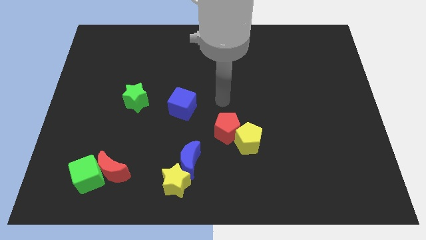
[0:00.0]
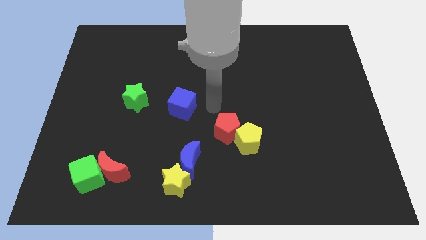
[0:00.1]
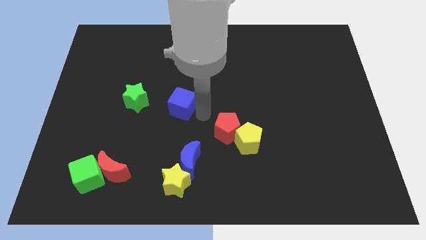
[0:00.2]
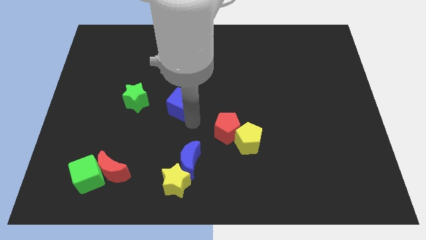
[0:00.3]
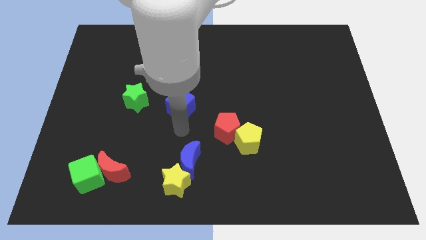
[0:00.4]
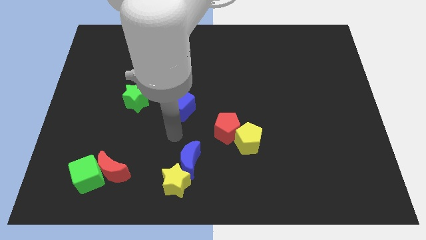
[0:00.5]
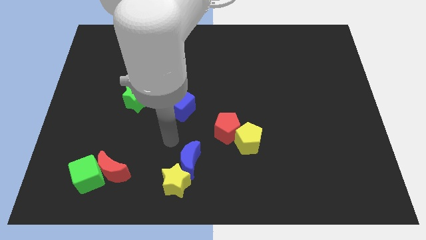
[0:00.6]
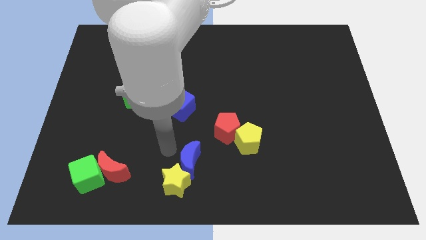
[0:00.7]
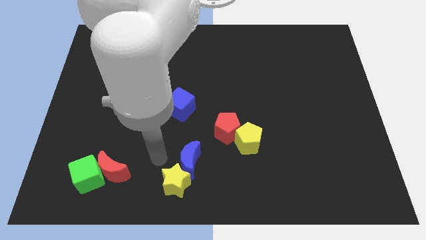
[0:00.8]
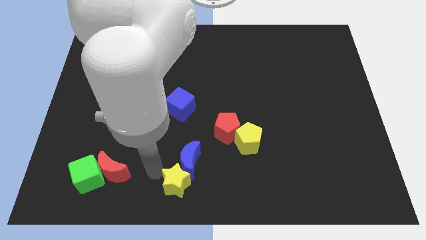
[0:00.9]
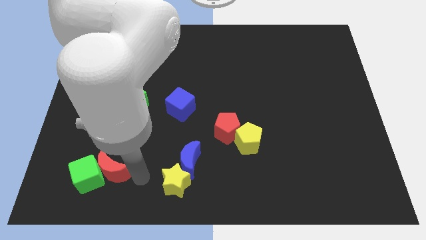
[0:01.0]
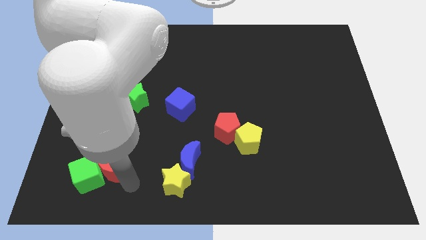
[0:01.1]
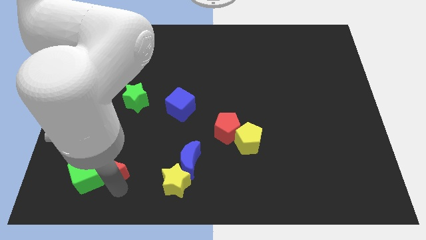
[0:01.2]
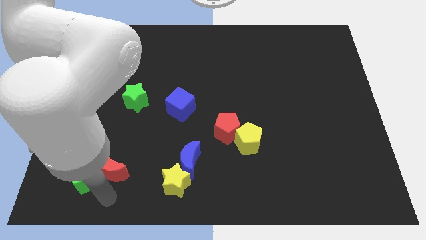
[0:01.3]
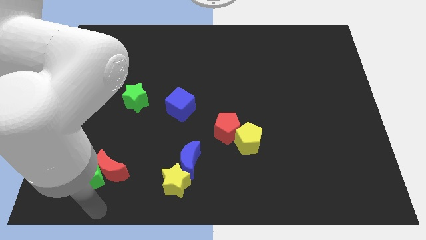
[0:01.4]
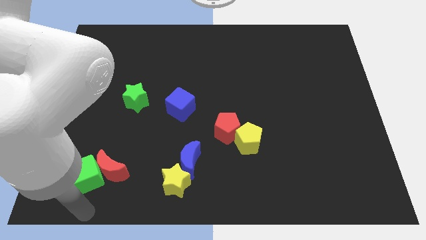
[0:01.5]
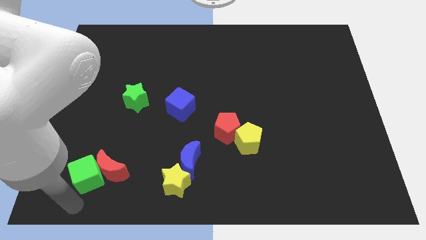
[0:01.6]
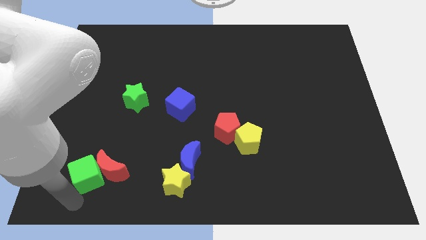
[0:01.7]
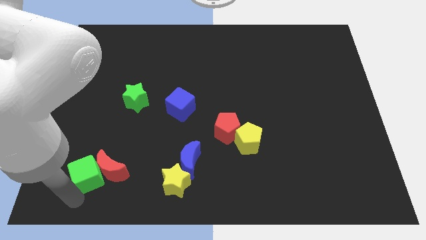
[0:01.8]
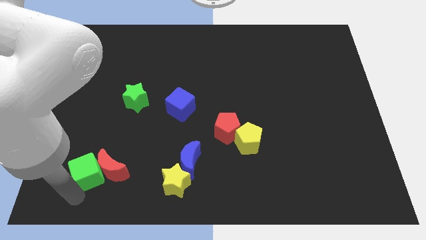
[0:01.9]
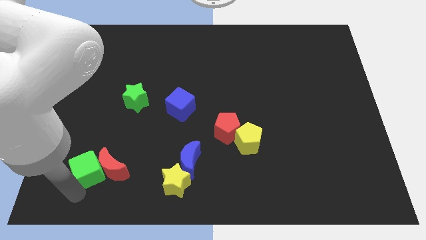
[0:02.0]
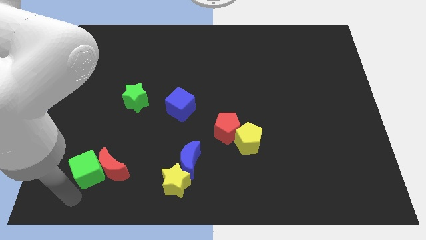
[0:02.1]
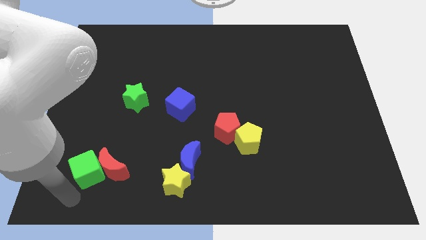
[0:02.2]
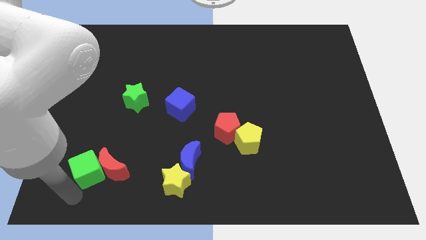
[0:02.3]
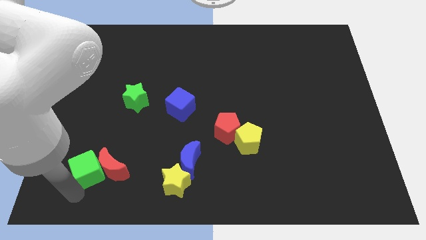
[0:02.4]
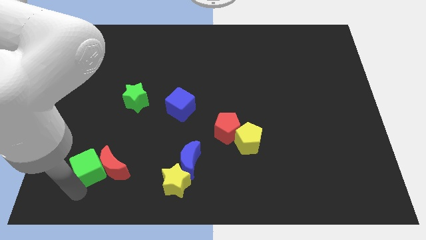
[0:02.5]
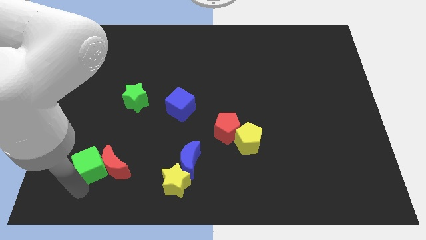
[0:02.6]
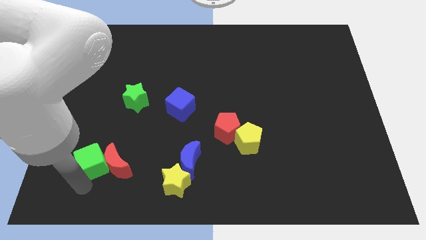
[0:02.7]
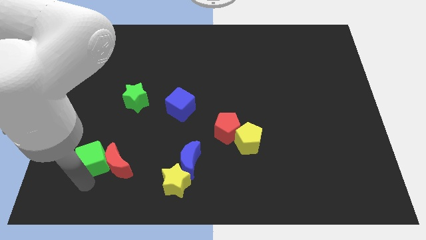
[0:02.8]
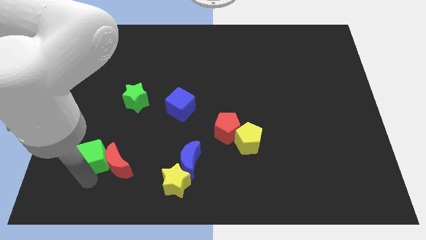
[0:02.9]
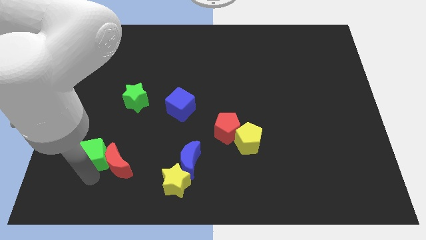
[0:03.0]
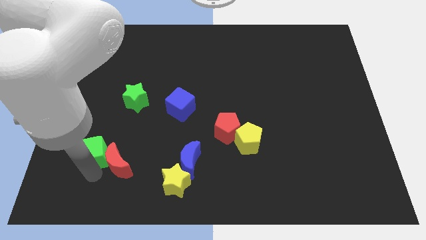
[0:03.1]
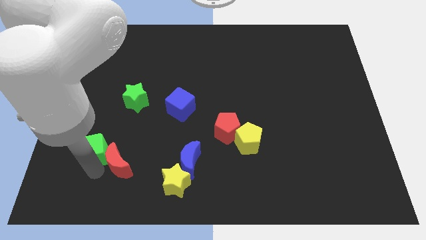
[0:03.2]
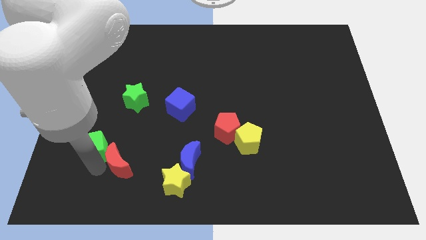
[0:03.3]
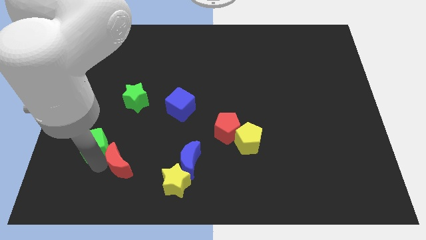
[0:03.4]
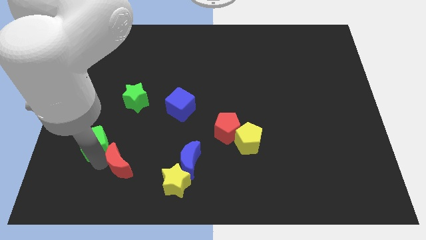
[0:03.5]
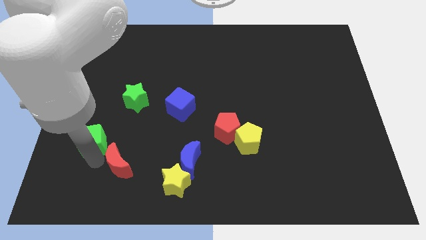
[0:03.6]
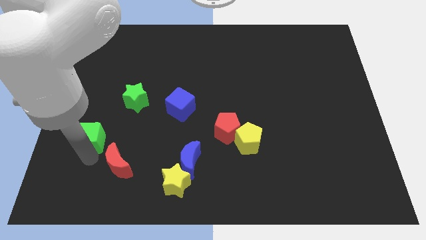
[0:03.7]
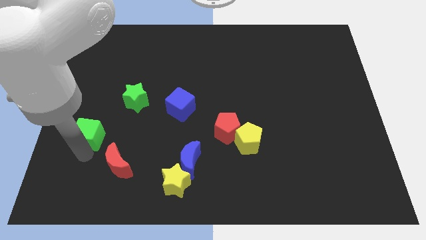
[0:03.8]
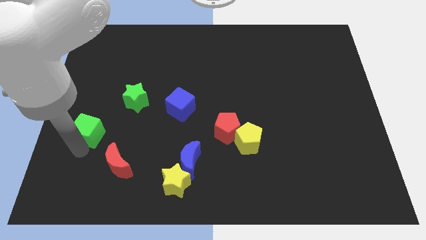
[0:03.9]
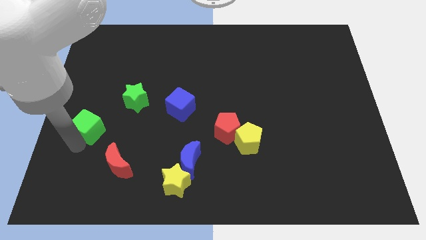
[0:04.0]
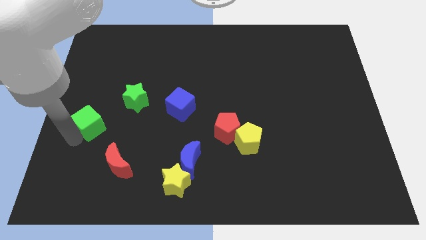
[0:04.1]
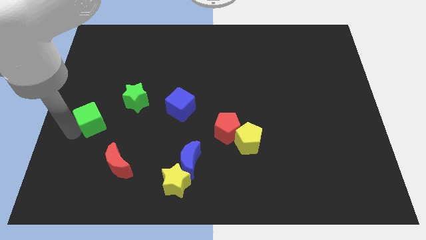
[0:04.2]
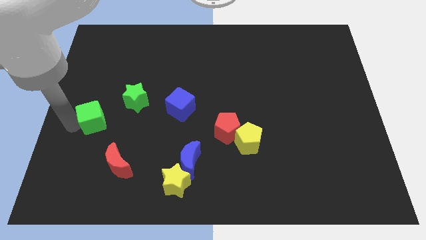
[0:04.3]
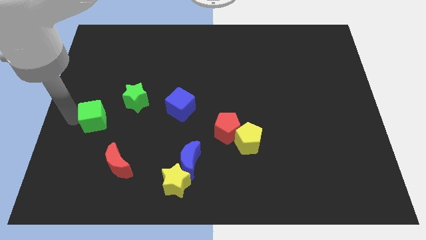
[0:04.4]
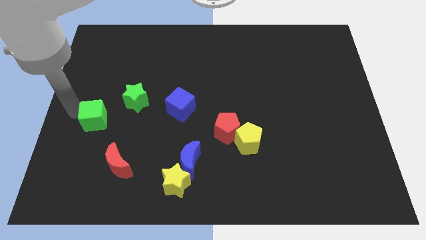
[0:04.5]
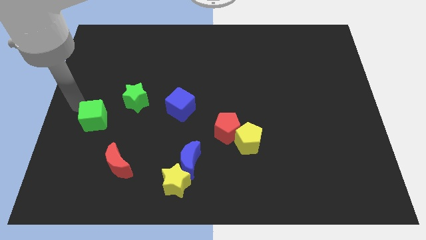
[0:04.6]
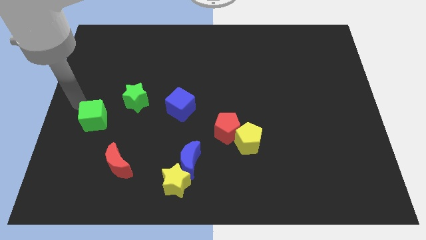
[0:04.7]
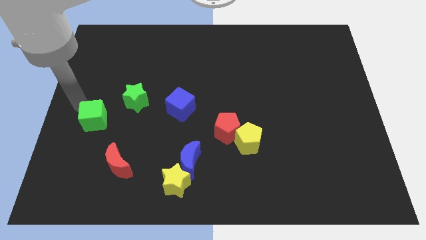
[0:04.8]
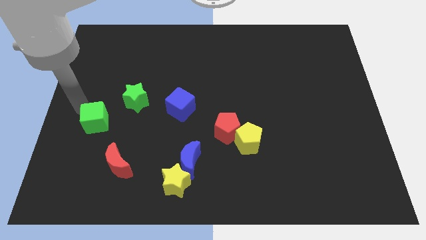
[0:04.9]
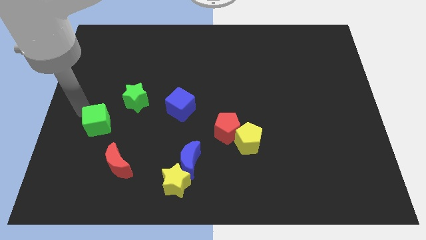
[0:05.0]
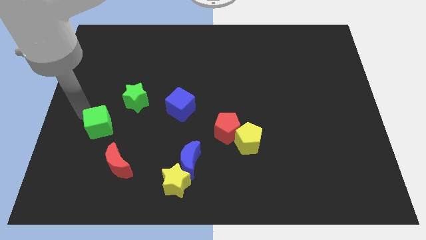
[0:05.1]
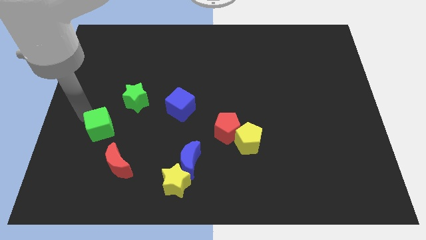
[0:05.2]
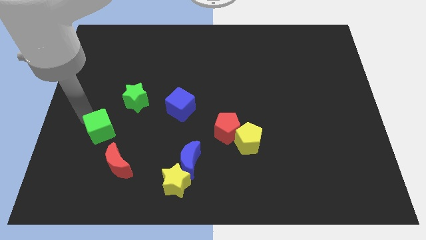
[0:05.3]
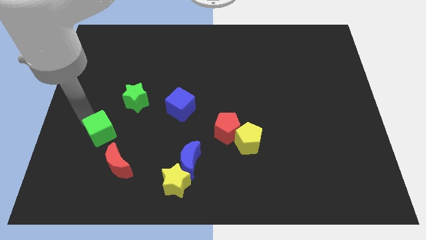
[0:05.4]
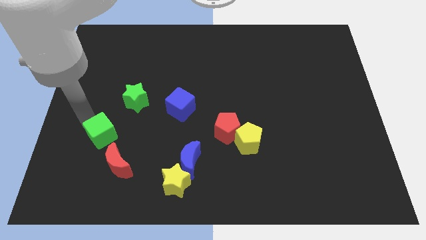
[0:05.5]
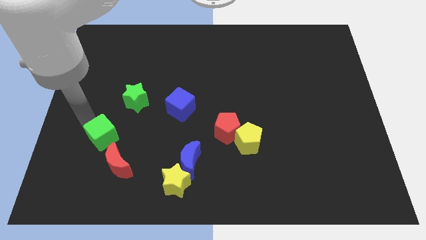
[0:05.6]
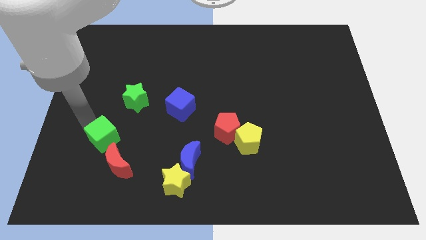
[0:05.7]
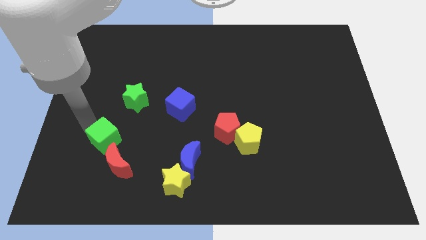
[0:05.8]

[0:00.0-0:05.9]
push the green cube a little diagonally upwards and right

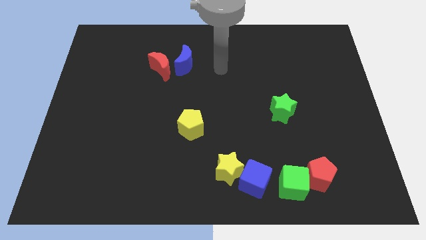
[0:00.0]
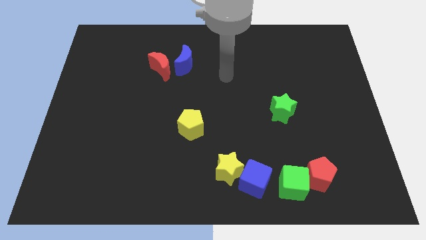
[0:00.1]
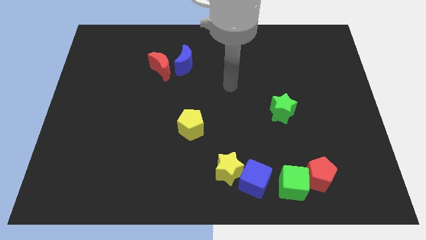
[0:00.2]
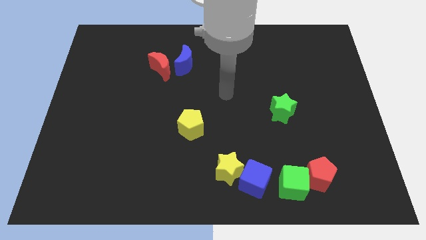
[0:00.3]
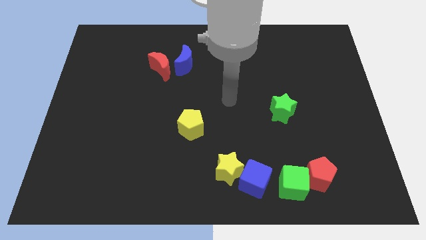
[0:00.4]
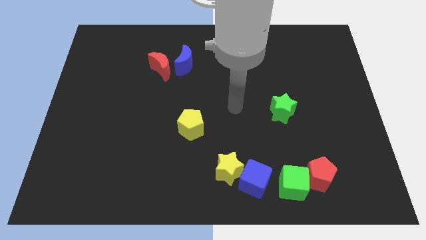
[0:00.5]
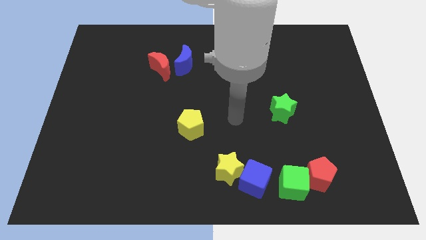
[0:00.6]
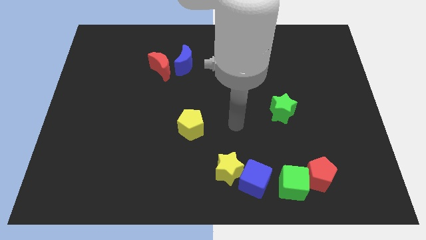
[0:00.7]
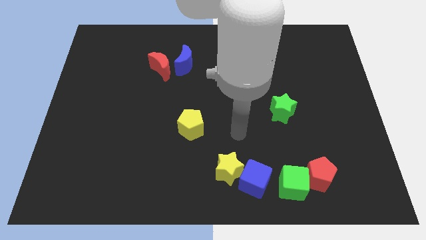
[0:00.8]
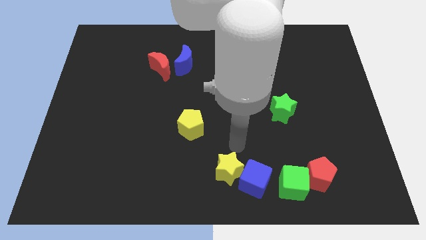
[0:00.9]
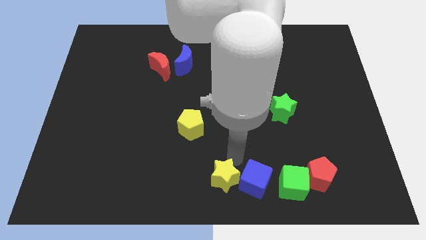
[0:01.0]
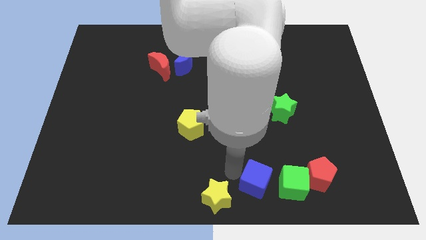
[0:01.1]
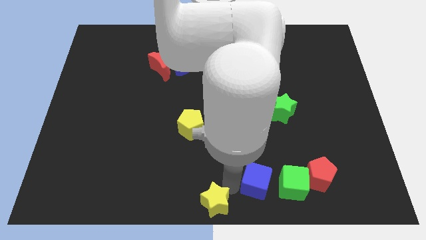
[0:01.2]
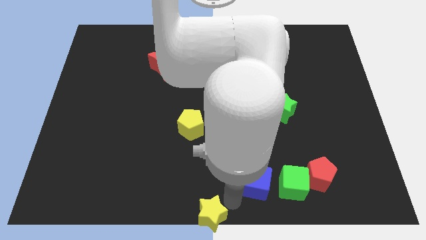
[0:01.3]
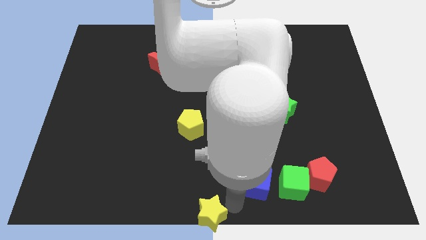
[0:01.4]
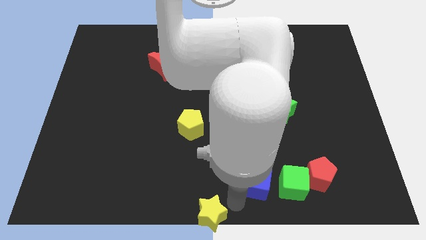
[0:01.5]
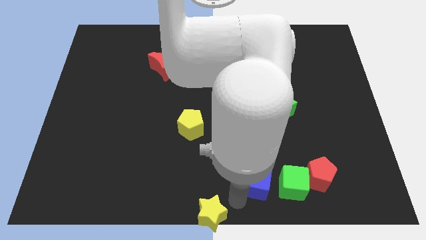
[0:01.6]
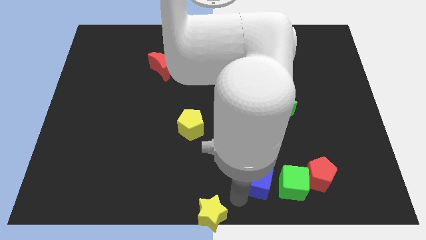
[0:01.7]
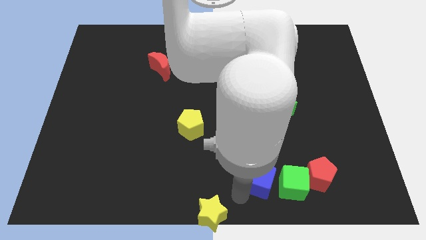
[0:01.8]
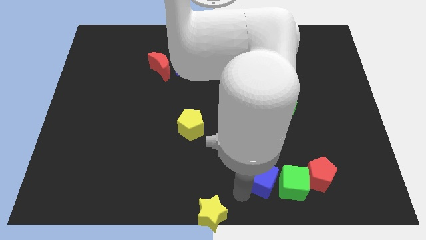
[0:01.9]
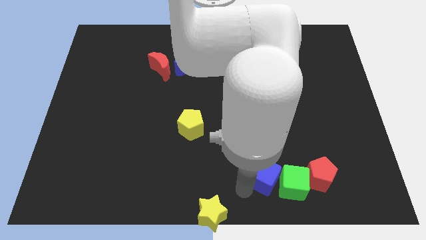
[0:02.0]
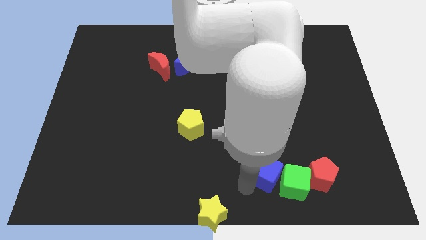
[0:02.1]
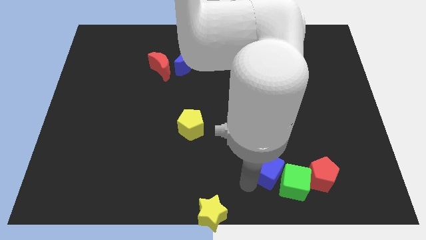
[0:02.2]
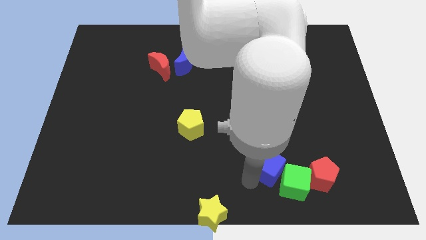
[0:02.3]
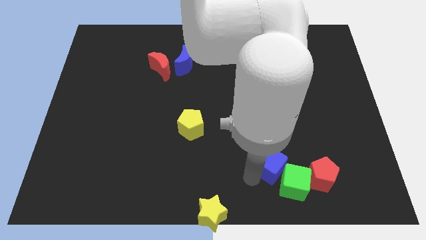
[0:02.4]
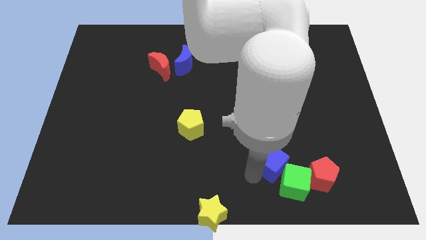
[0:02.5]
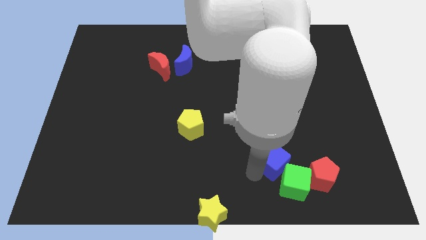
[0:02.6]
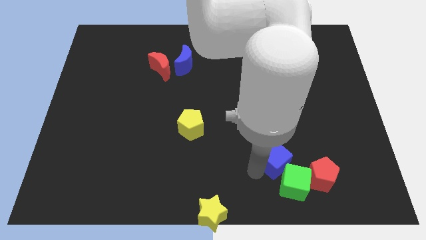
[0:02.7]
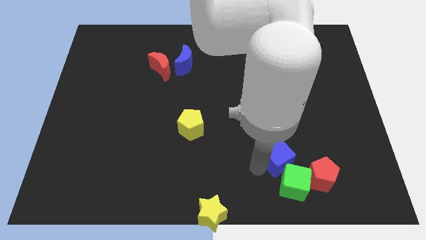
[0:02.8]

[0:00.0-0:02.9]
move the blue cube diagonally up and to the right somewhat
